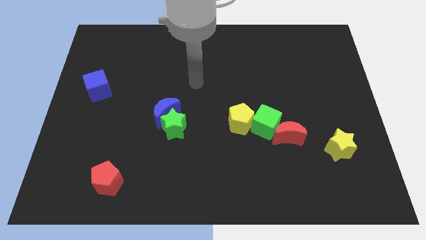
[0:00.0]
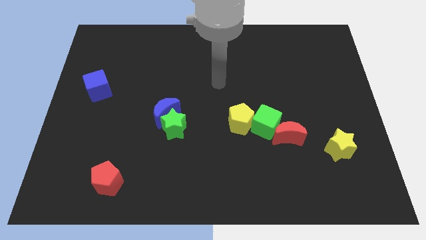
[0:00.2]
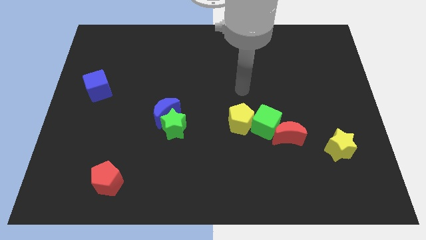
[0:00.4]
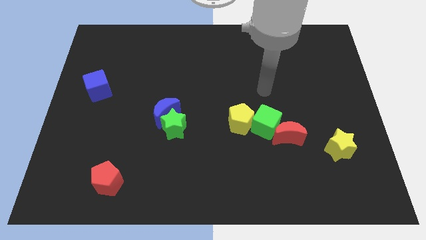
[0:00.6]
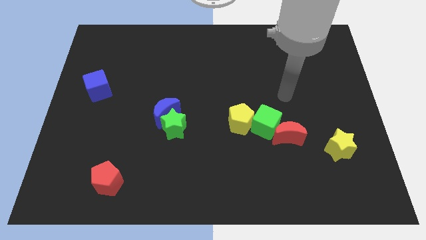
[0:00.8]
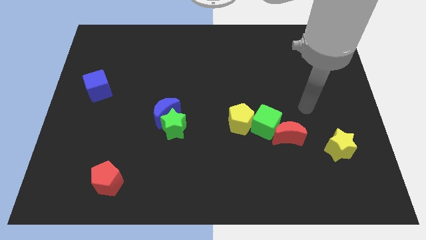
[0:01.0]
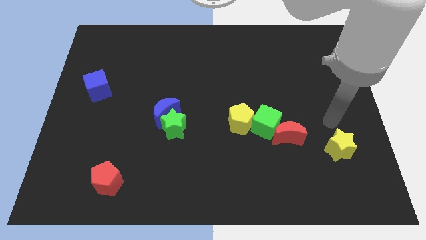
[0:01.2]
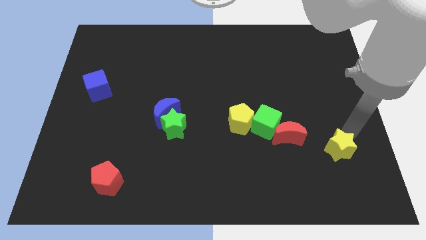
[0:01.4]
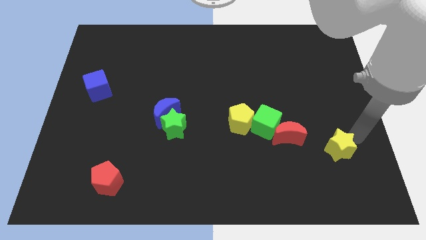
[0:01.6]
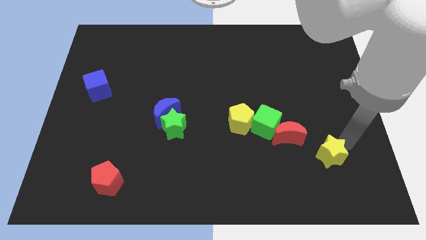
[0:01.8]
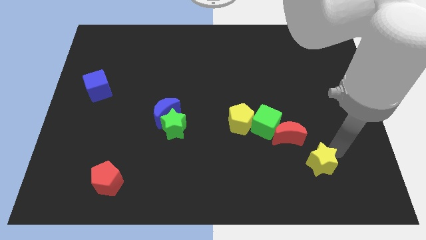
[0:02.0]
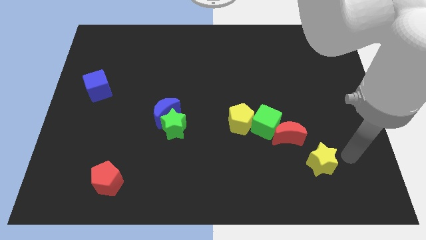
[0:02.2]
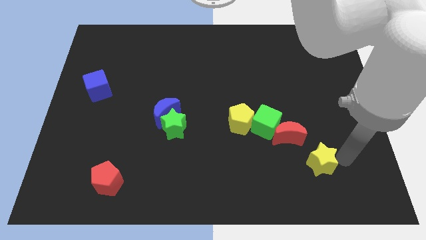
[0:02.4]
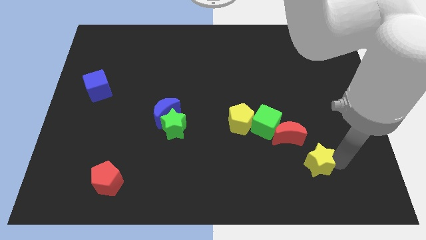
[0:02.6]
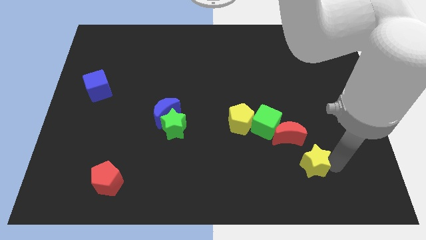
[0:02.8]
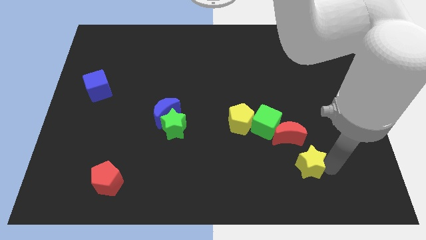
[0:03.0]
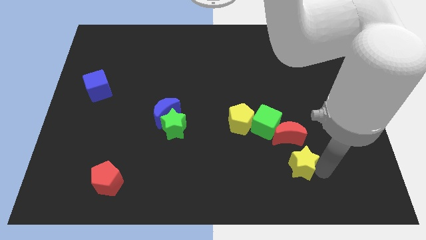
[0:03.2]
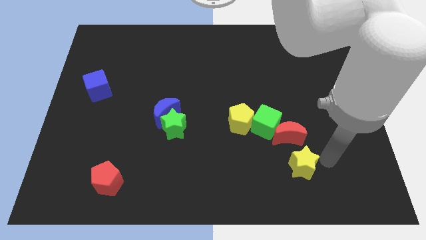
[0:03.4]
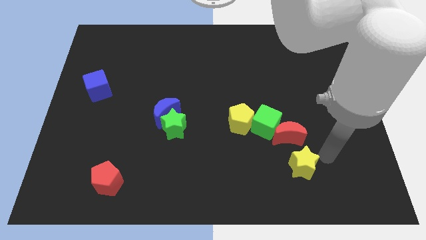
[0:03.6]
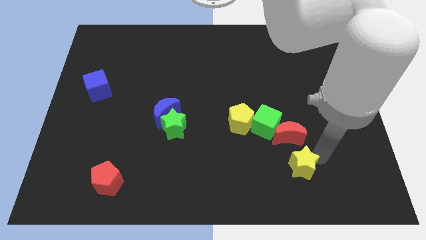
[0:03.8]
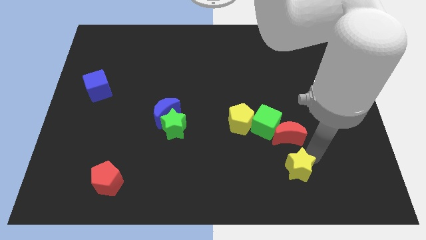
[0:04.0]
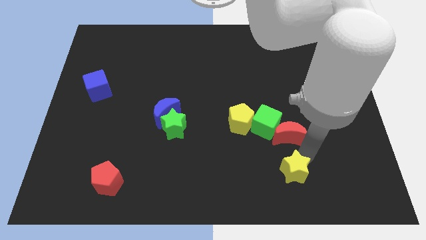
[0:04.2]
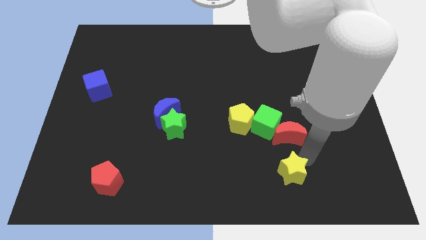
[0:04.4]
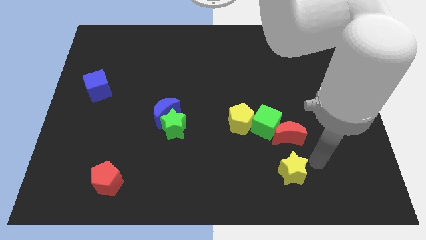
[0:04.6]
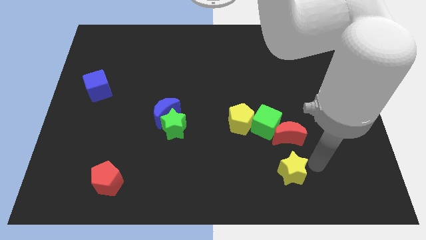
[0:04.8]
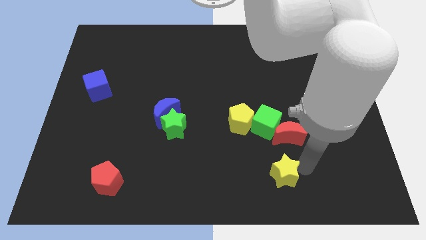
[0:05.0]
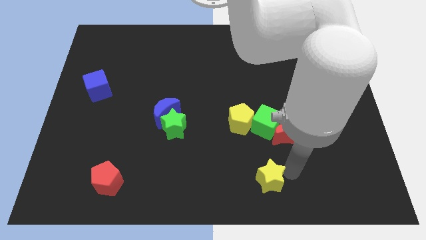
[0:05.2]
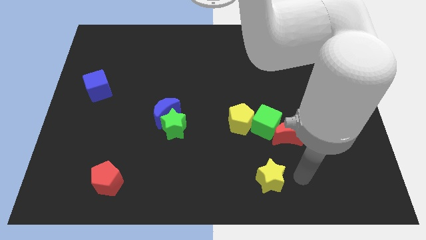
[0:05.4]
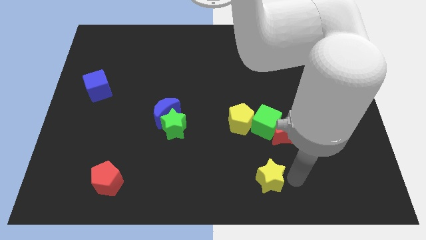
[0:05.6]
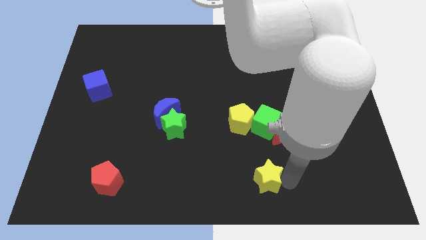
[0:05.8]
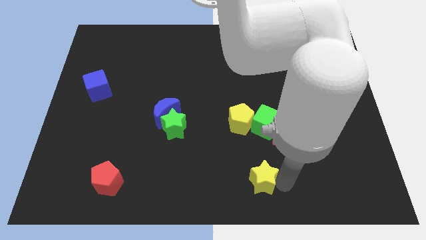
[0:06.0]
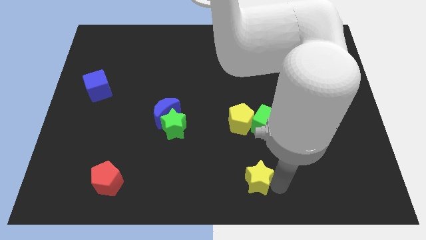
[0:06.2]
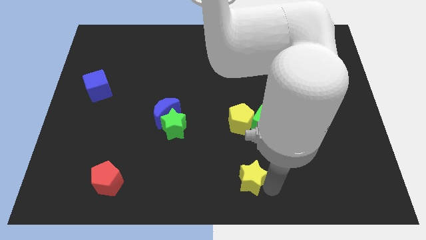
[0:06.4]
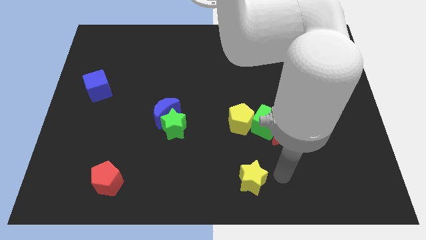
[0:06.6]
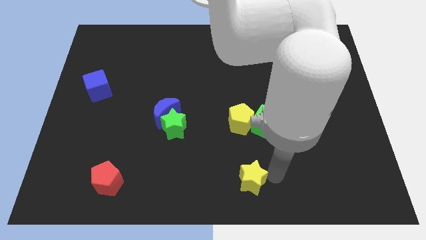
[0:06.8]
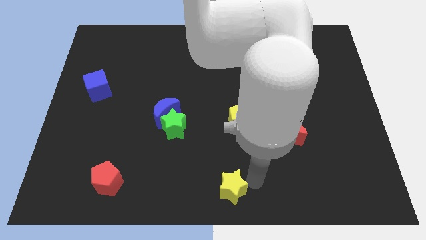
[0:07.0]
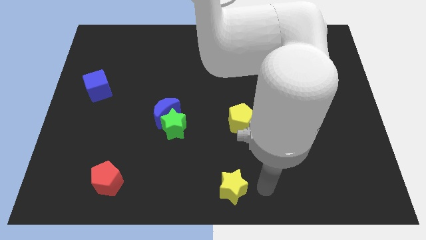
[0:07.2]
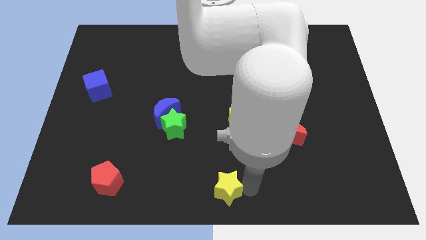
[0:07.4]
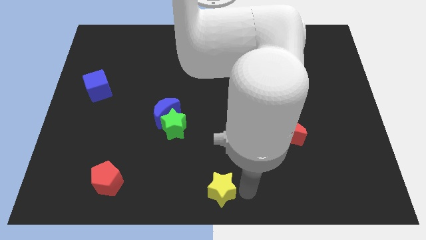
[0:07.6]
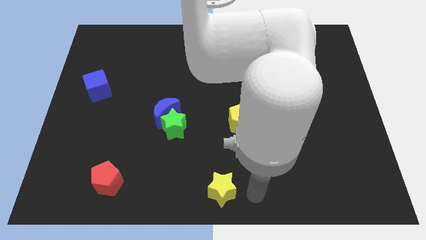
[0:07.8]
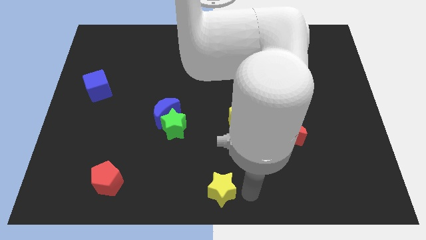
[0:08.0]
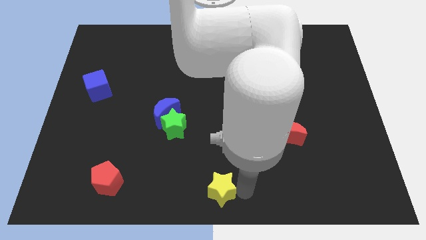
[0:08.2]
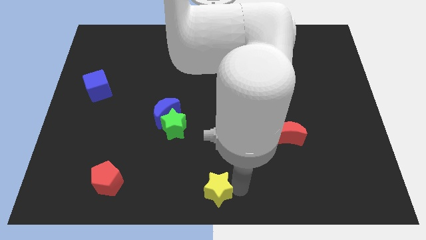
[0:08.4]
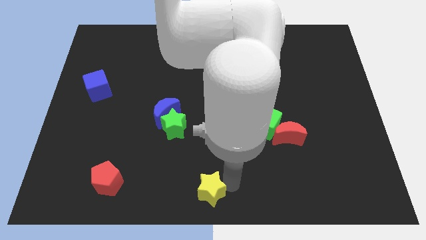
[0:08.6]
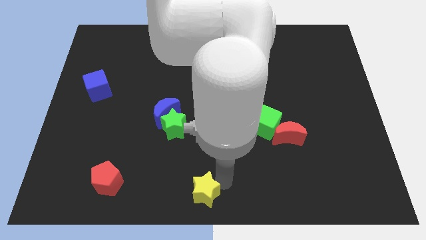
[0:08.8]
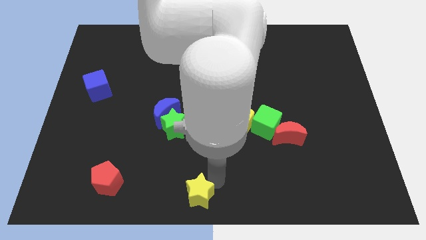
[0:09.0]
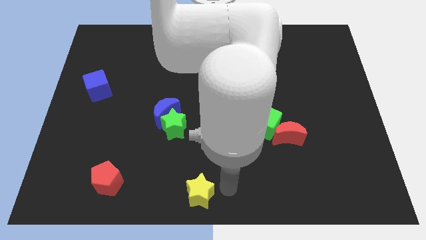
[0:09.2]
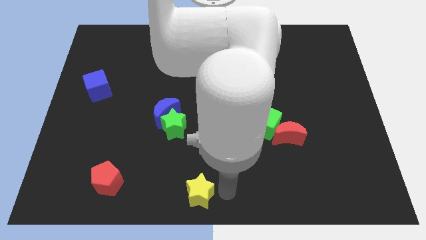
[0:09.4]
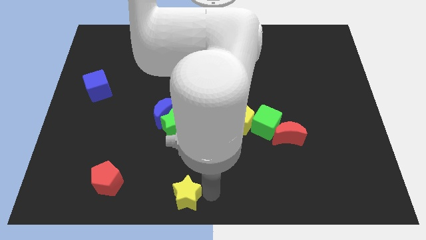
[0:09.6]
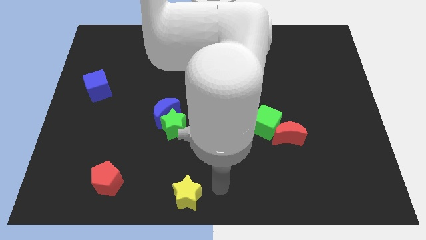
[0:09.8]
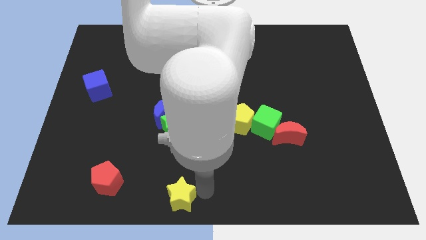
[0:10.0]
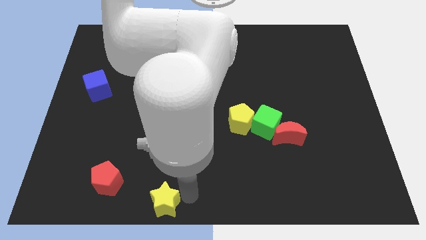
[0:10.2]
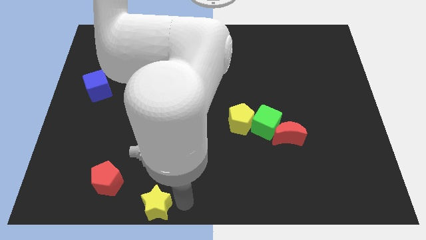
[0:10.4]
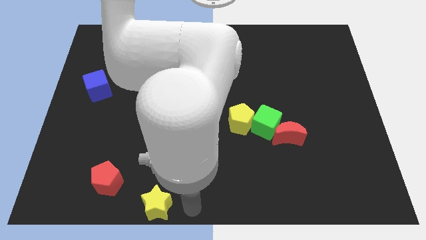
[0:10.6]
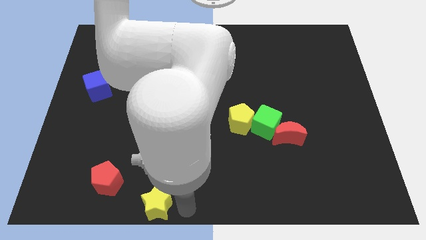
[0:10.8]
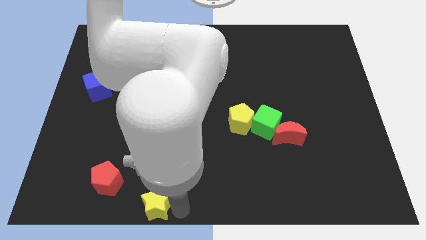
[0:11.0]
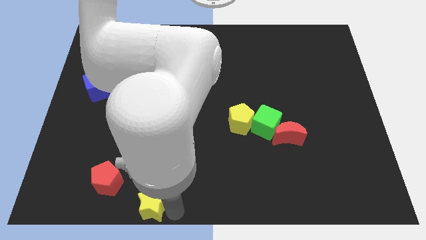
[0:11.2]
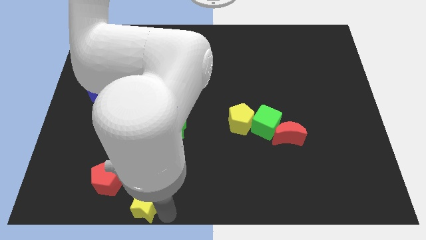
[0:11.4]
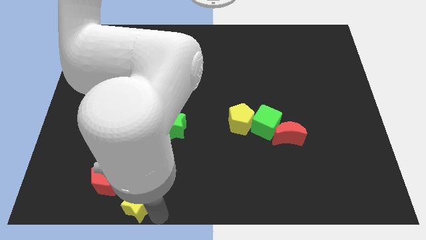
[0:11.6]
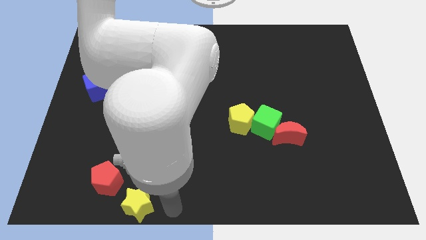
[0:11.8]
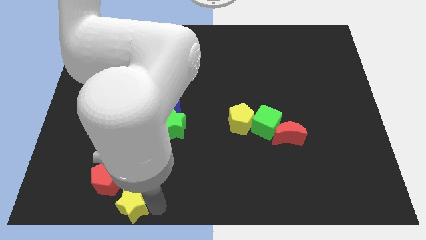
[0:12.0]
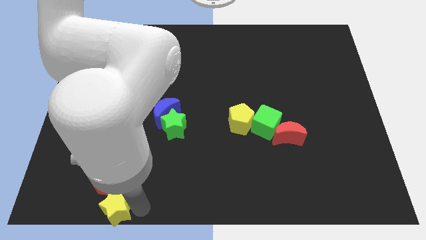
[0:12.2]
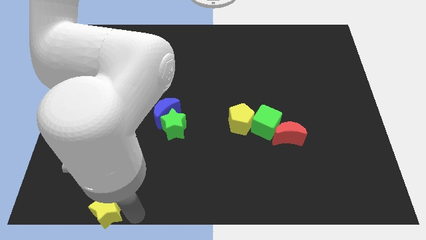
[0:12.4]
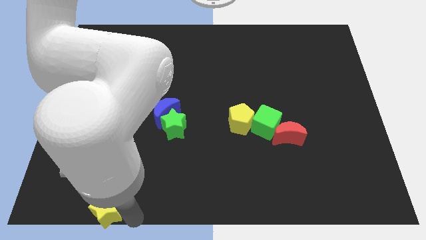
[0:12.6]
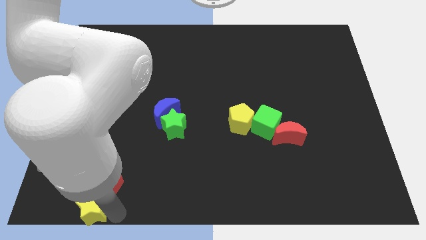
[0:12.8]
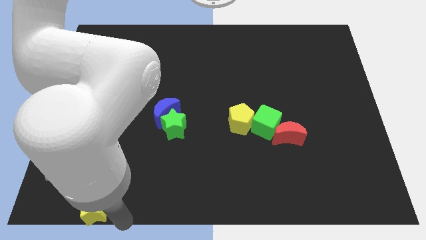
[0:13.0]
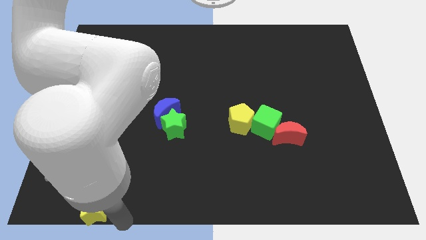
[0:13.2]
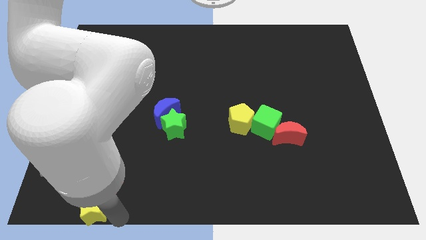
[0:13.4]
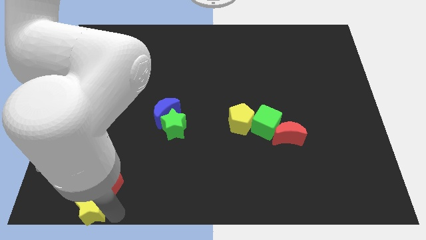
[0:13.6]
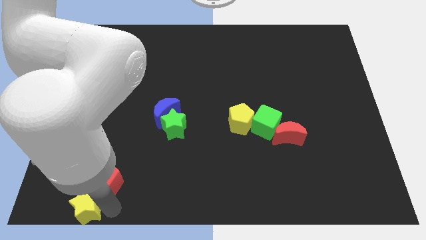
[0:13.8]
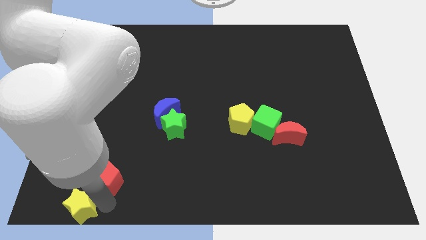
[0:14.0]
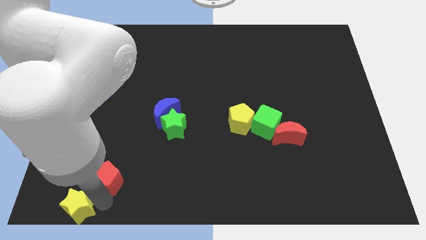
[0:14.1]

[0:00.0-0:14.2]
slide the yellow star to the bottom left corner
